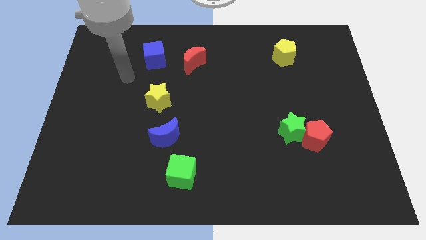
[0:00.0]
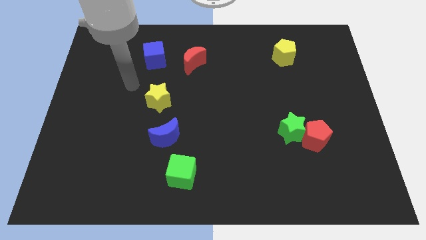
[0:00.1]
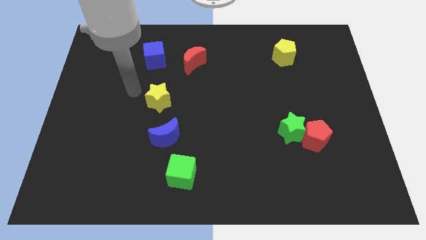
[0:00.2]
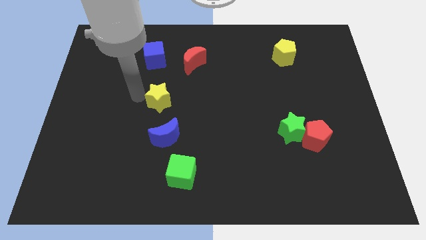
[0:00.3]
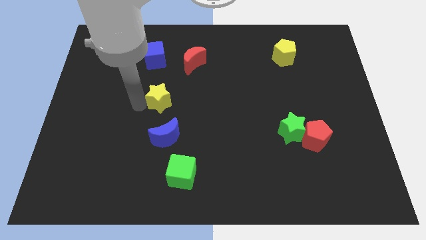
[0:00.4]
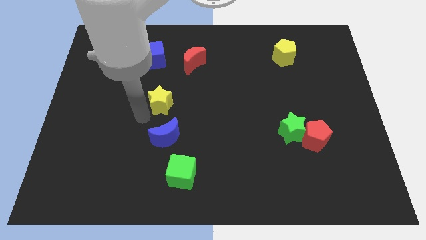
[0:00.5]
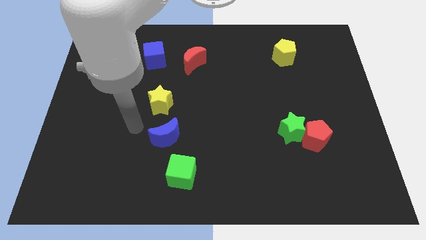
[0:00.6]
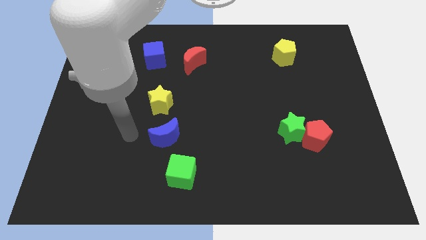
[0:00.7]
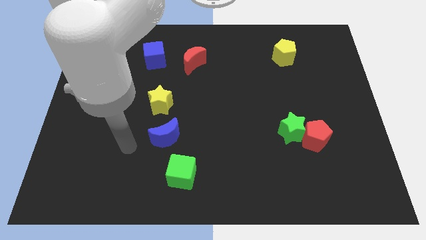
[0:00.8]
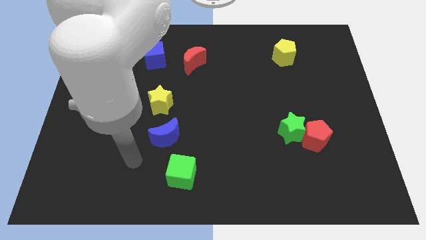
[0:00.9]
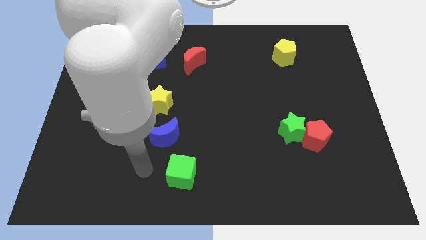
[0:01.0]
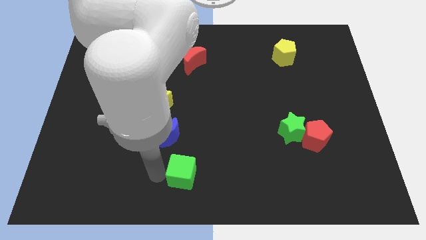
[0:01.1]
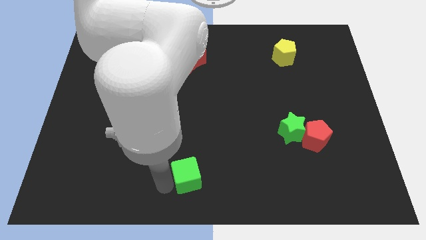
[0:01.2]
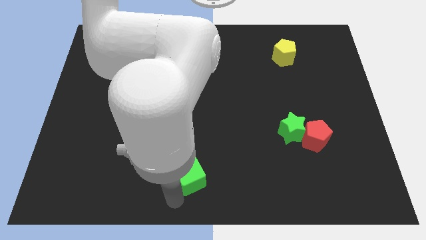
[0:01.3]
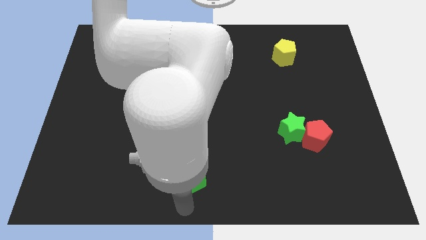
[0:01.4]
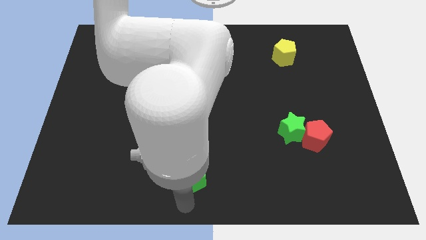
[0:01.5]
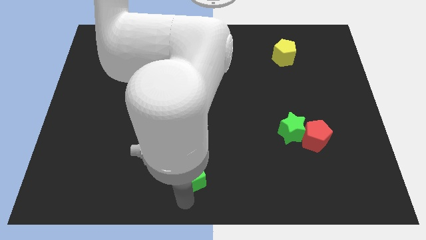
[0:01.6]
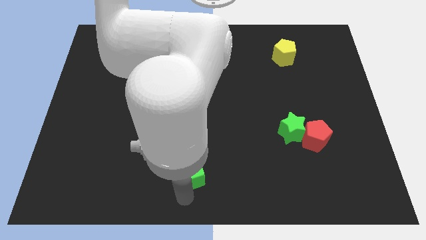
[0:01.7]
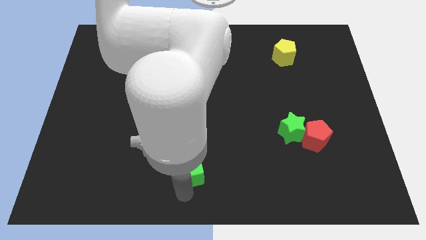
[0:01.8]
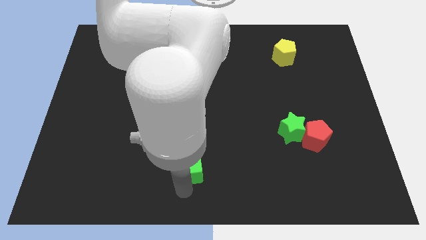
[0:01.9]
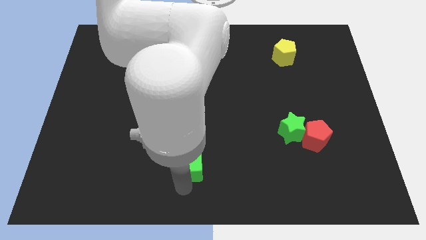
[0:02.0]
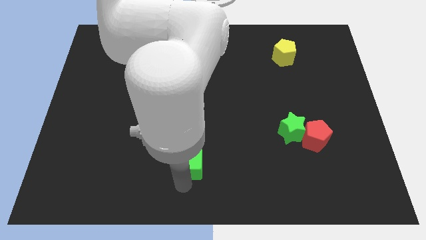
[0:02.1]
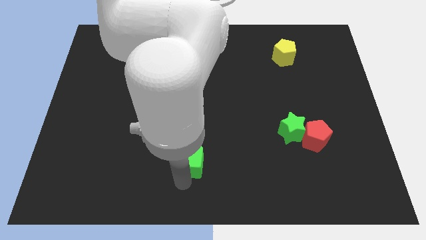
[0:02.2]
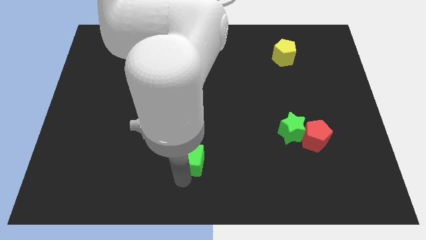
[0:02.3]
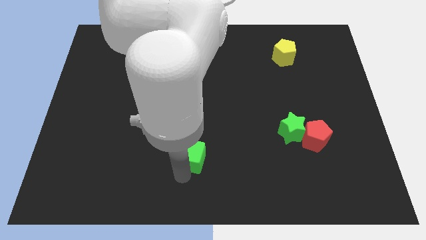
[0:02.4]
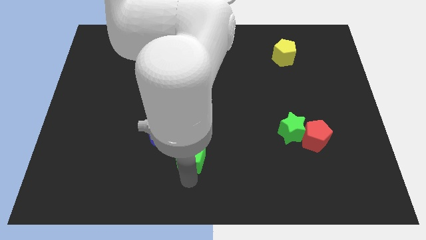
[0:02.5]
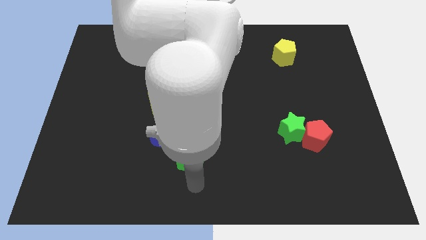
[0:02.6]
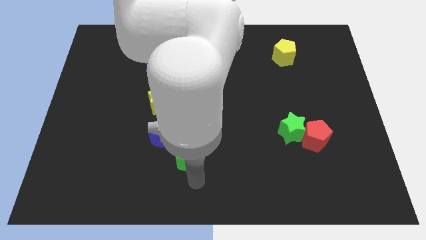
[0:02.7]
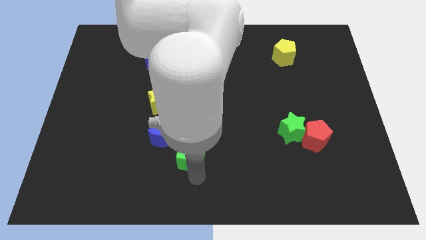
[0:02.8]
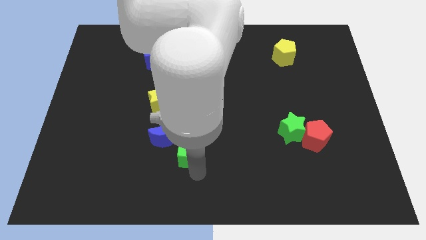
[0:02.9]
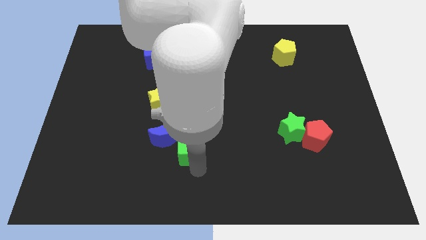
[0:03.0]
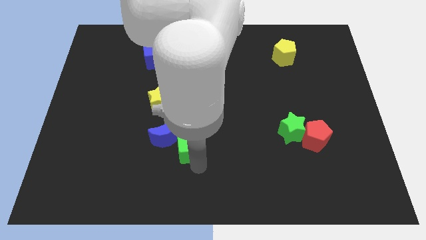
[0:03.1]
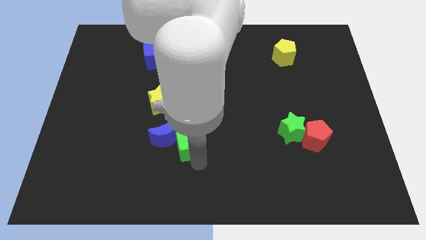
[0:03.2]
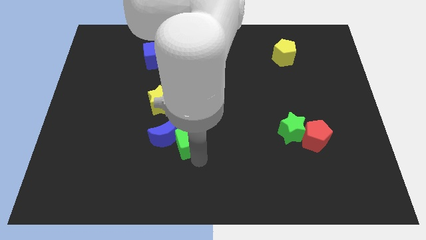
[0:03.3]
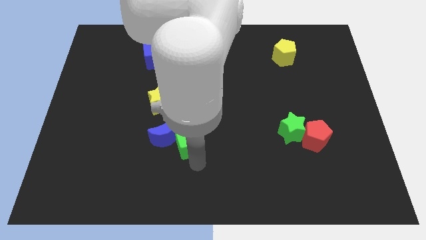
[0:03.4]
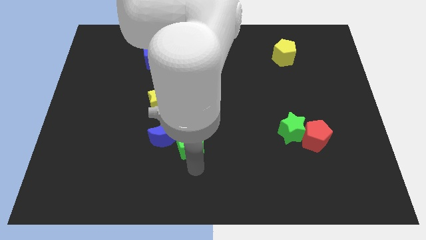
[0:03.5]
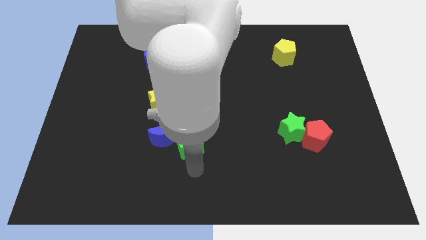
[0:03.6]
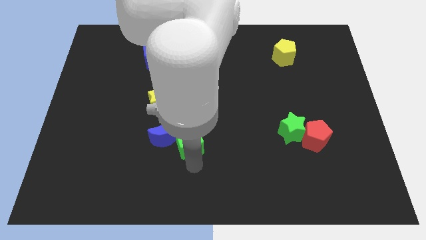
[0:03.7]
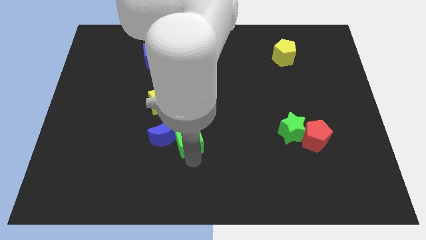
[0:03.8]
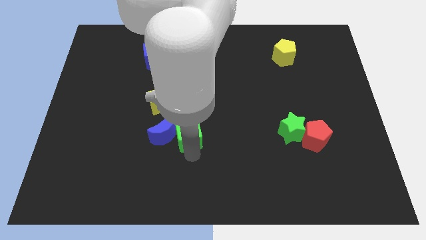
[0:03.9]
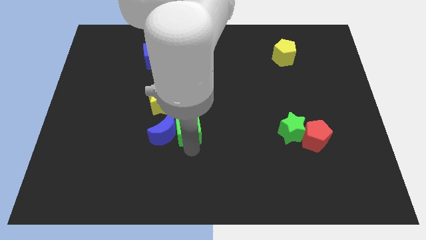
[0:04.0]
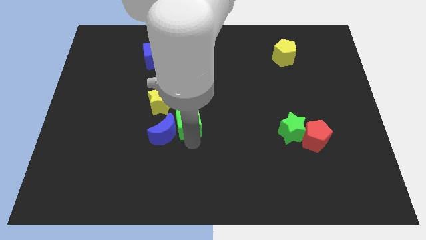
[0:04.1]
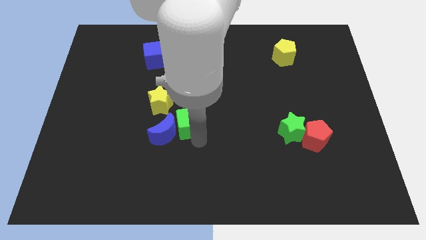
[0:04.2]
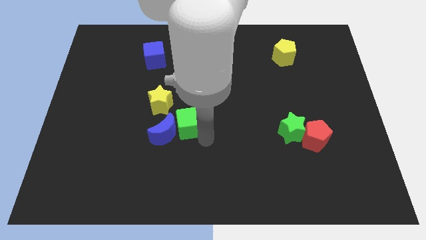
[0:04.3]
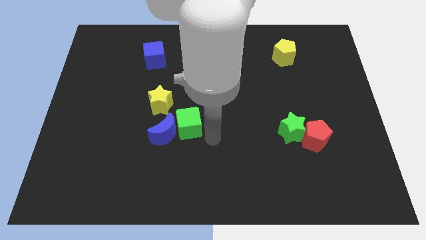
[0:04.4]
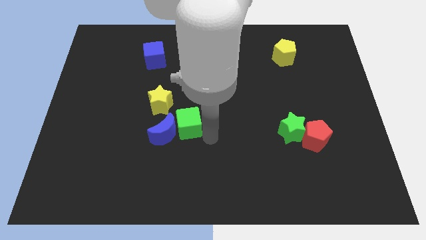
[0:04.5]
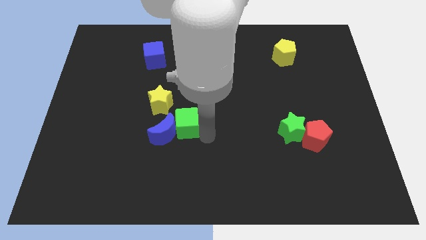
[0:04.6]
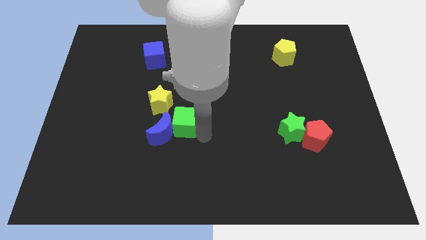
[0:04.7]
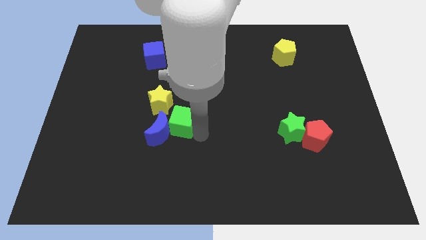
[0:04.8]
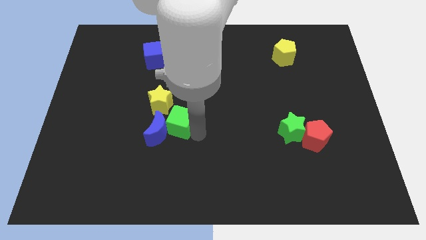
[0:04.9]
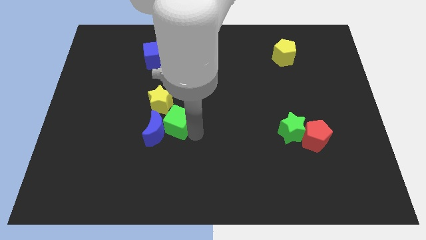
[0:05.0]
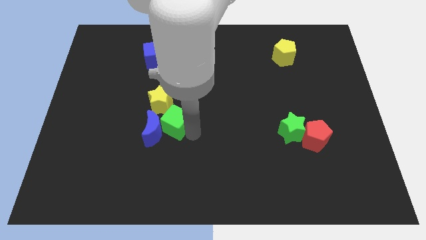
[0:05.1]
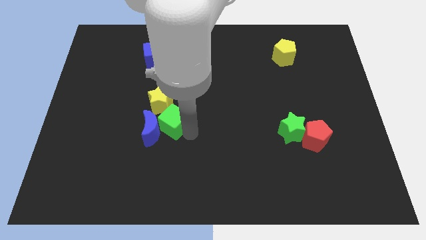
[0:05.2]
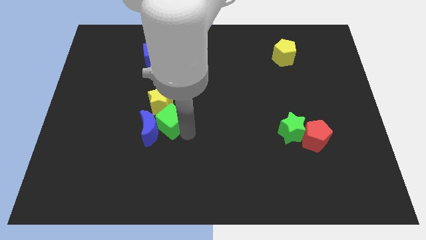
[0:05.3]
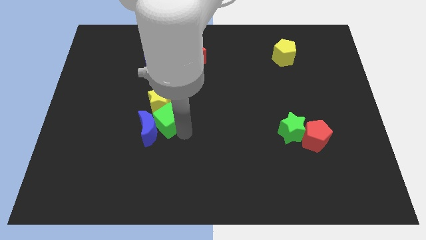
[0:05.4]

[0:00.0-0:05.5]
move the green cube to the yellow star

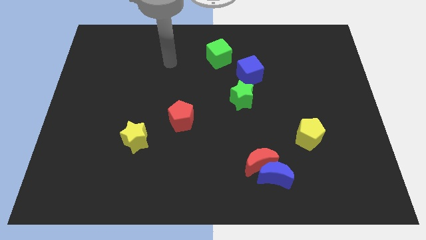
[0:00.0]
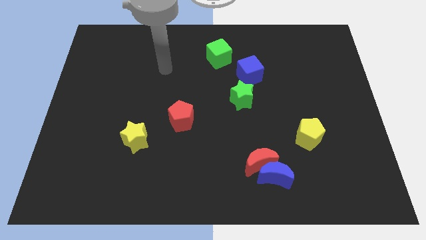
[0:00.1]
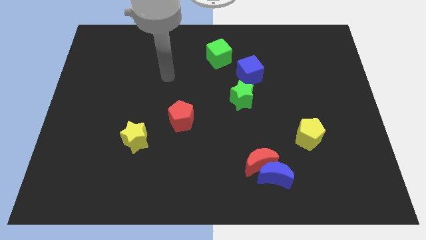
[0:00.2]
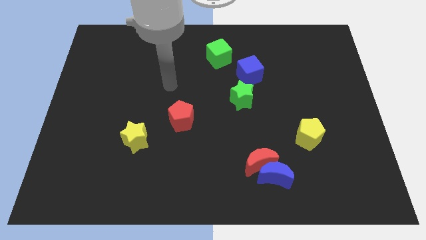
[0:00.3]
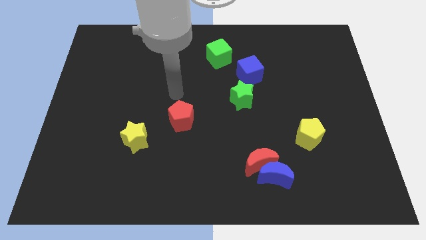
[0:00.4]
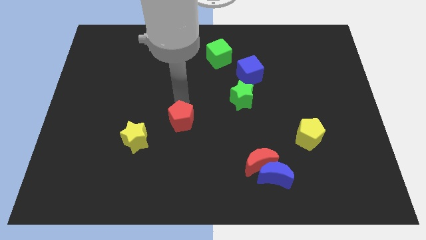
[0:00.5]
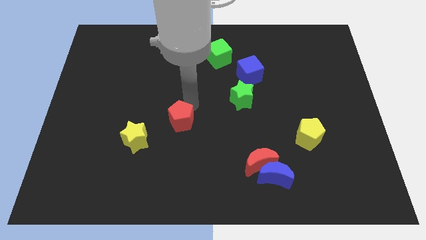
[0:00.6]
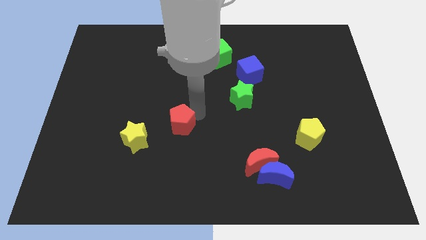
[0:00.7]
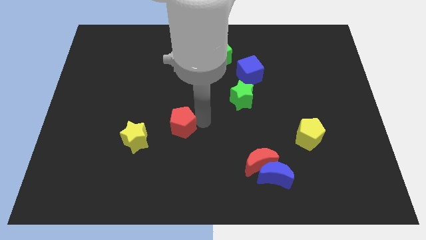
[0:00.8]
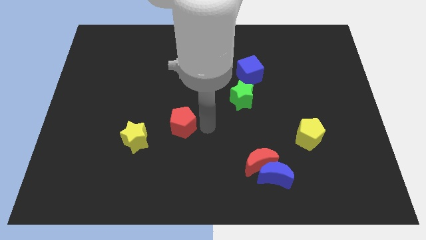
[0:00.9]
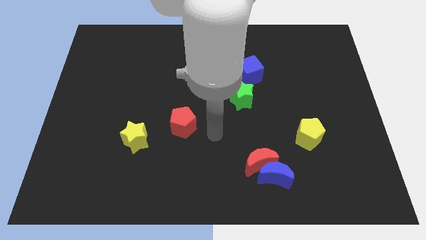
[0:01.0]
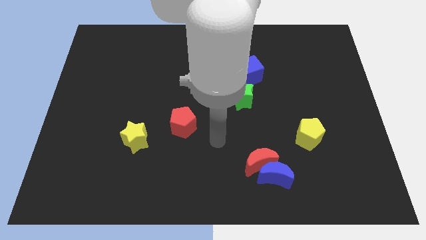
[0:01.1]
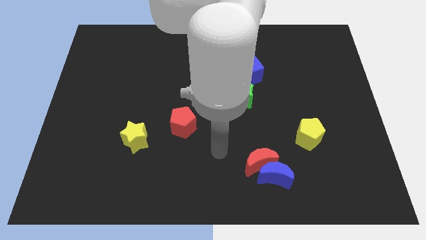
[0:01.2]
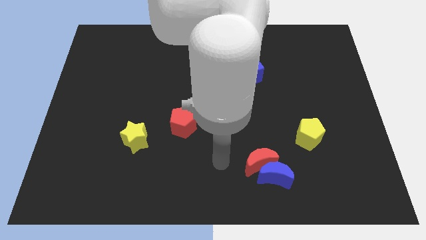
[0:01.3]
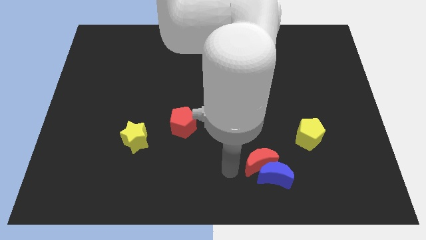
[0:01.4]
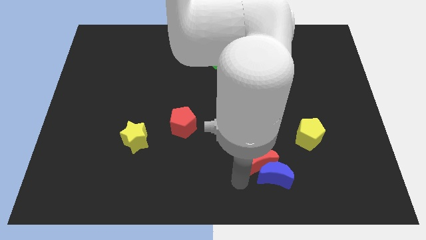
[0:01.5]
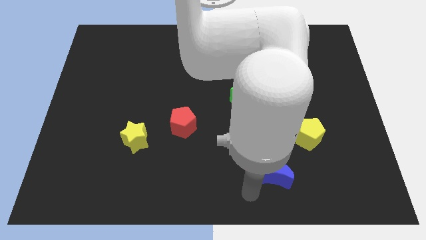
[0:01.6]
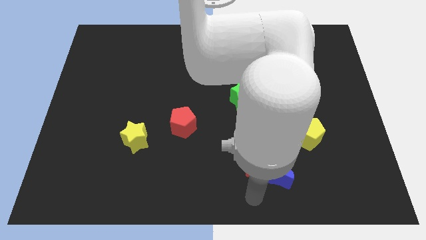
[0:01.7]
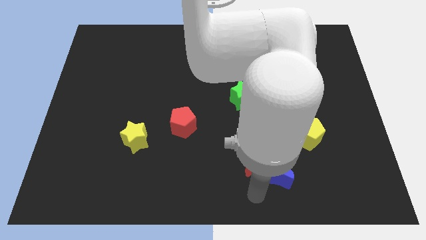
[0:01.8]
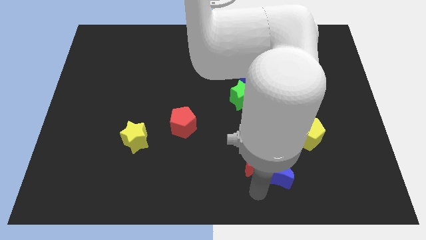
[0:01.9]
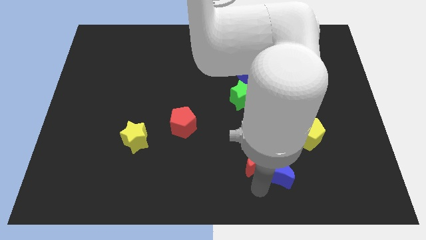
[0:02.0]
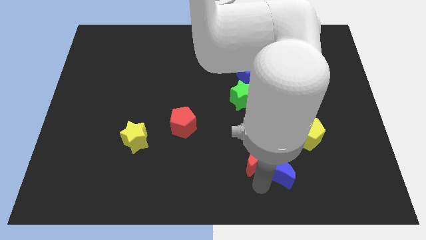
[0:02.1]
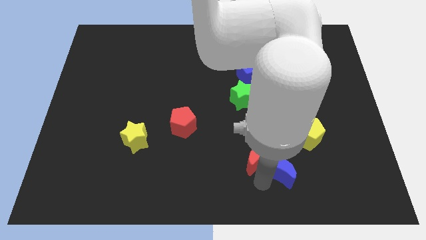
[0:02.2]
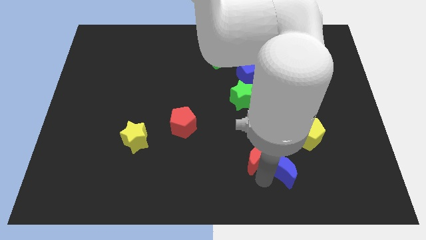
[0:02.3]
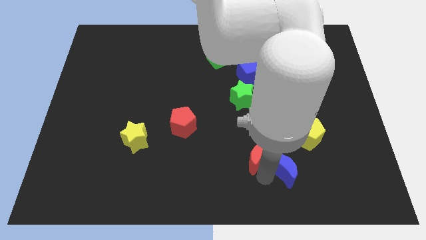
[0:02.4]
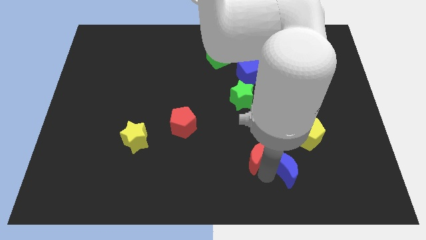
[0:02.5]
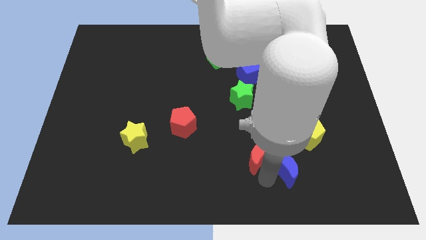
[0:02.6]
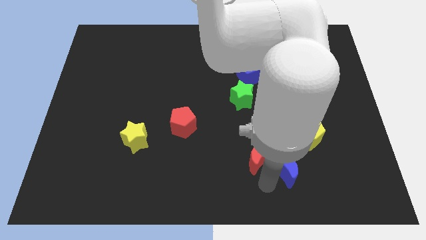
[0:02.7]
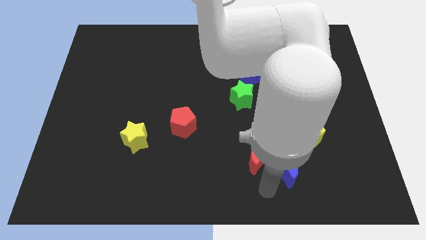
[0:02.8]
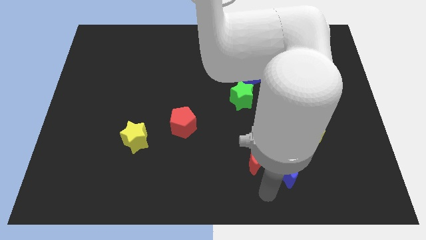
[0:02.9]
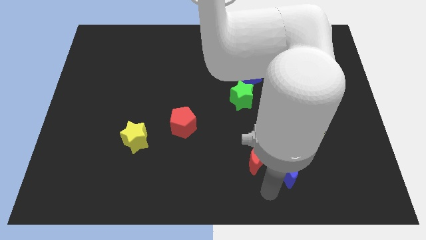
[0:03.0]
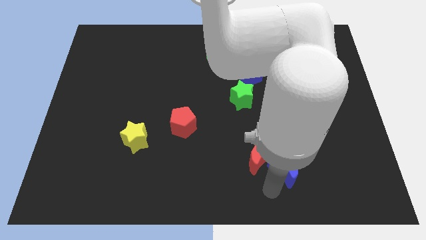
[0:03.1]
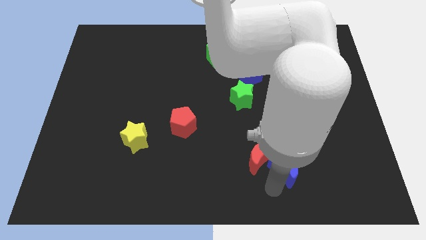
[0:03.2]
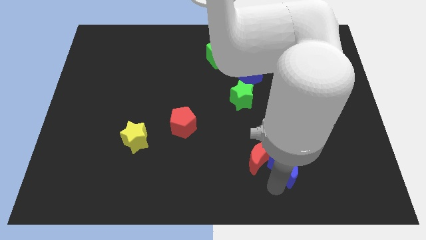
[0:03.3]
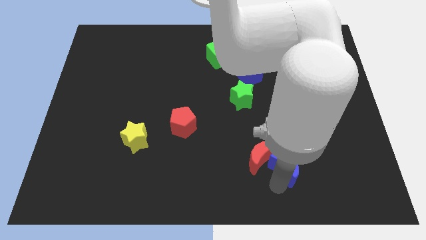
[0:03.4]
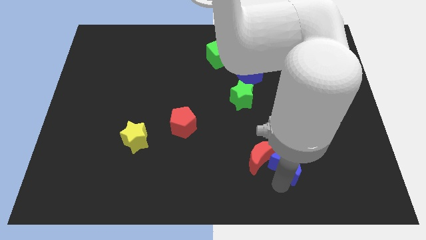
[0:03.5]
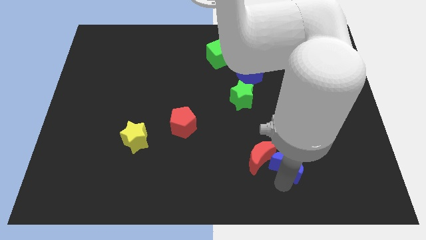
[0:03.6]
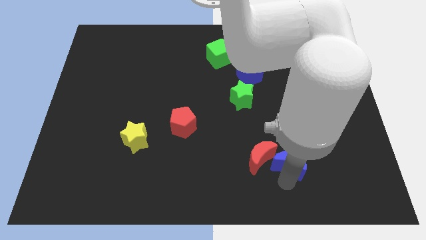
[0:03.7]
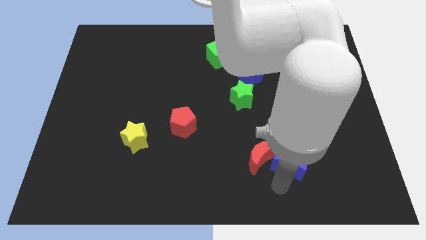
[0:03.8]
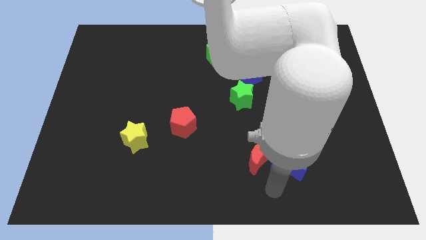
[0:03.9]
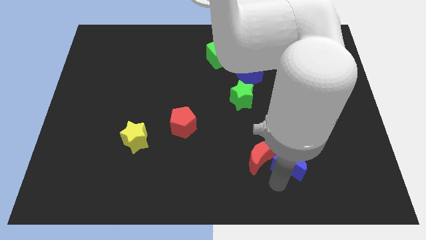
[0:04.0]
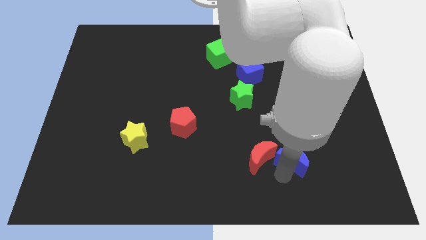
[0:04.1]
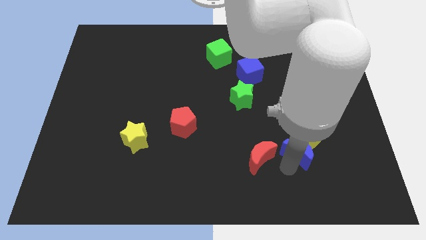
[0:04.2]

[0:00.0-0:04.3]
move the blue moon to the yellow pentagon
